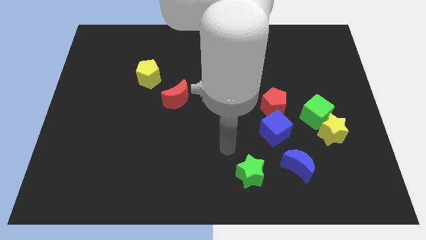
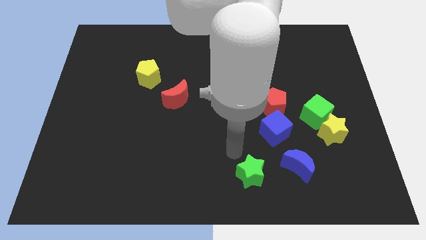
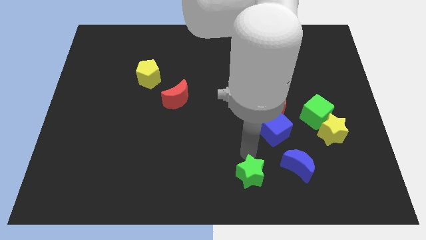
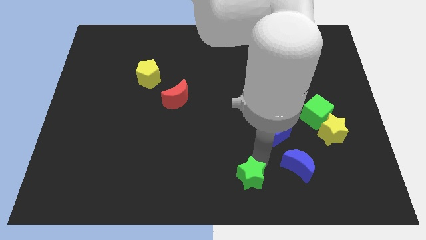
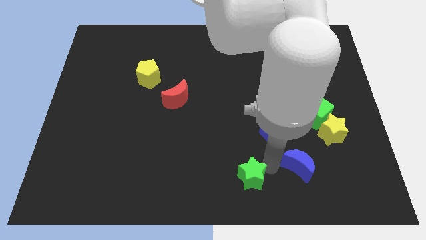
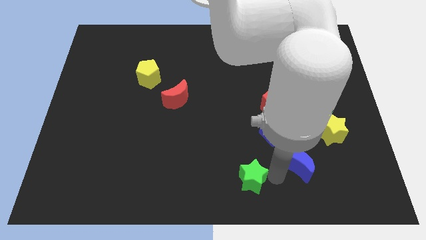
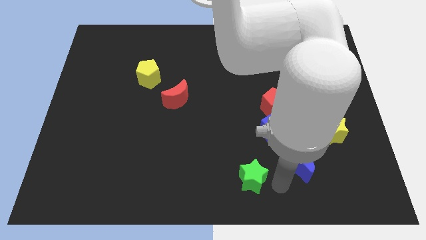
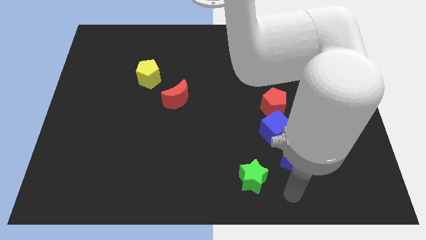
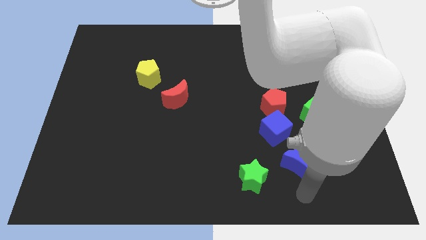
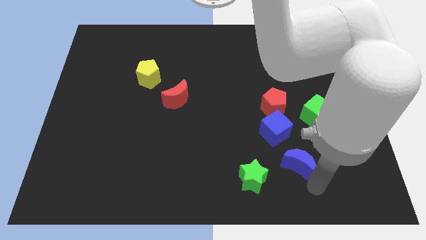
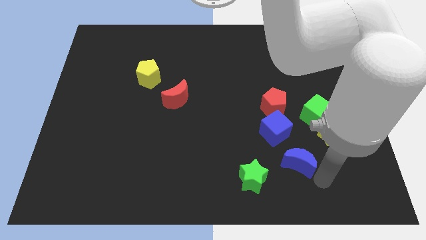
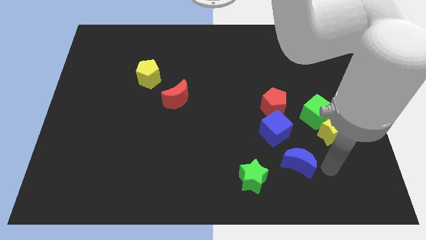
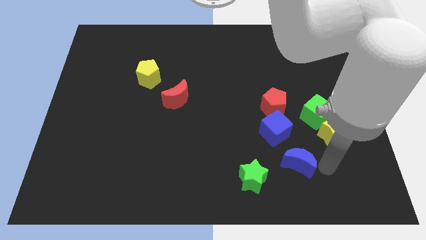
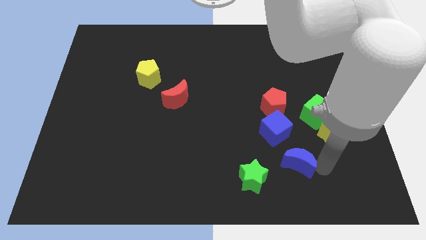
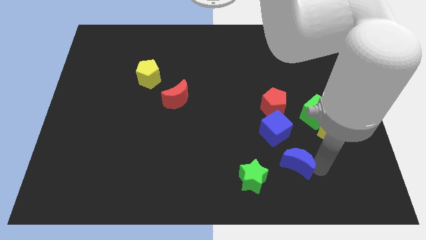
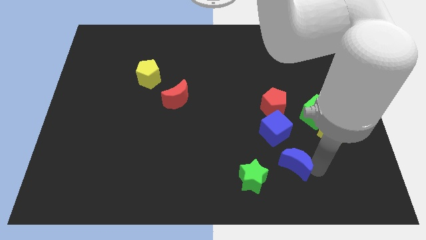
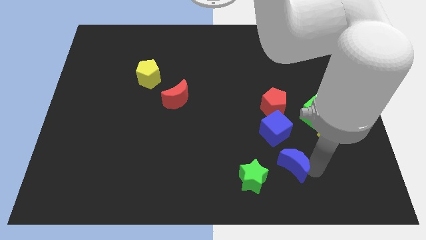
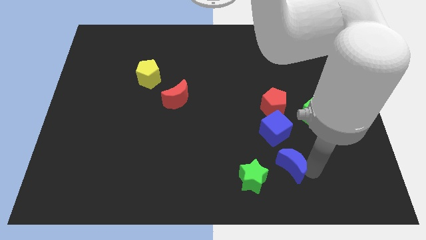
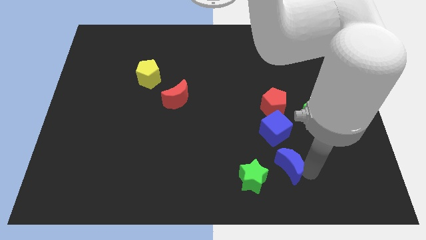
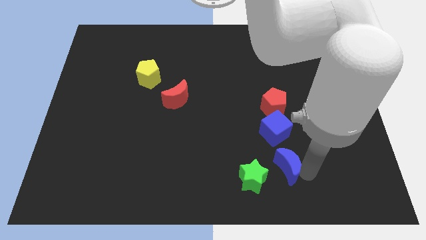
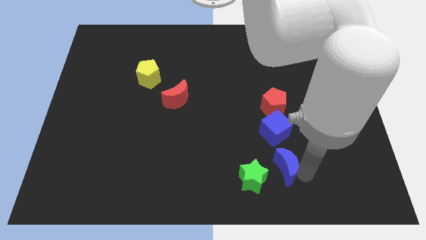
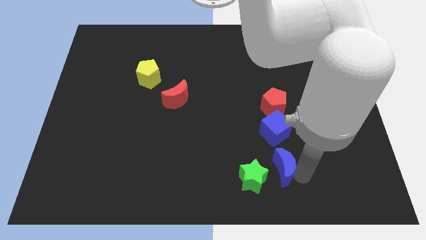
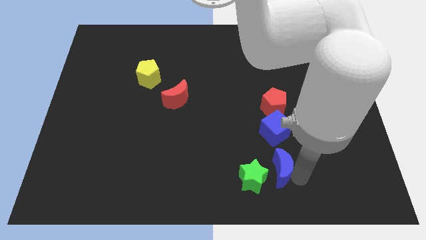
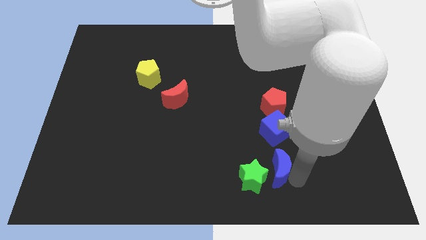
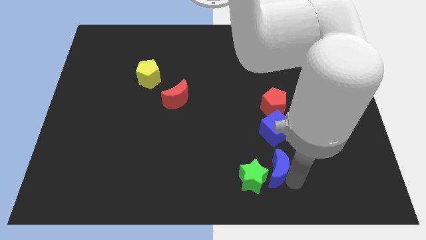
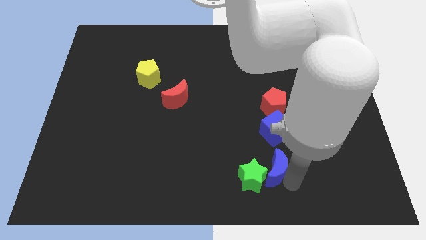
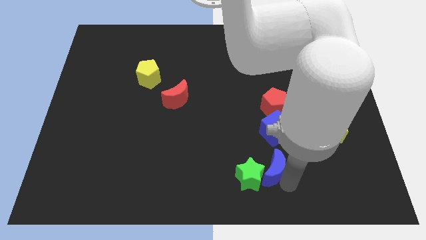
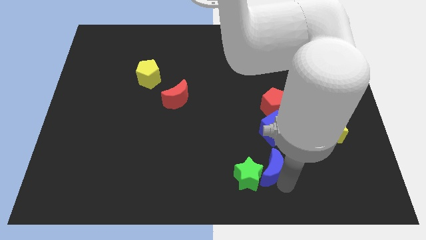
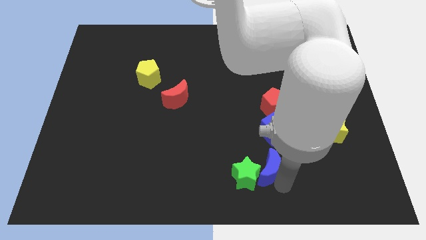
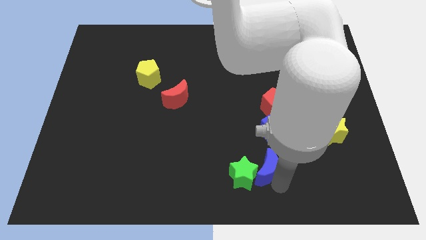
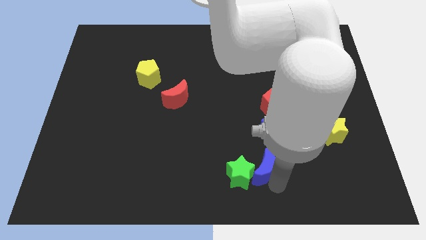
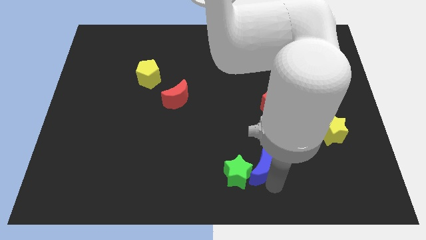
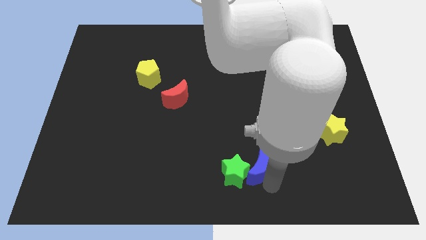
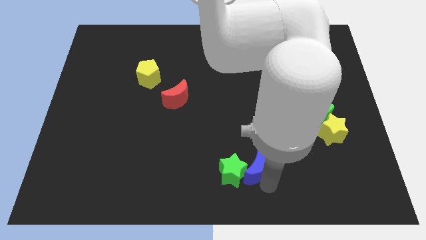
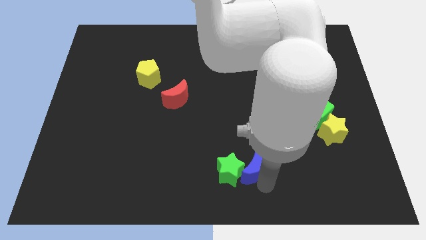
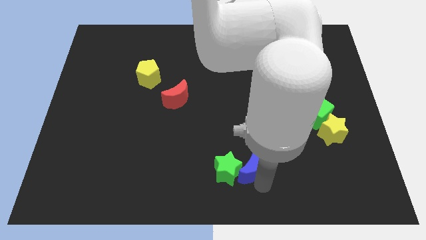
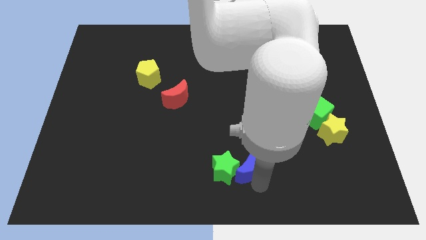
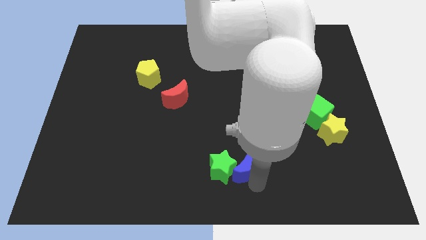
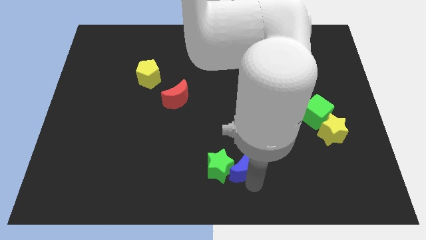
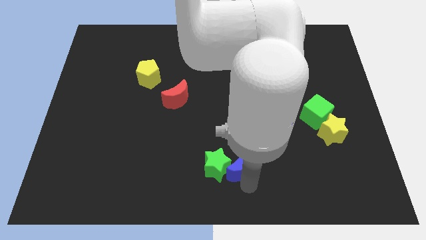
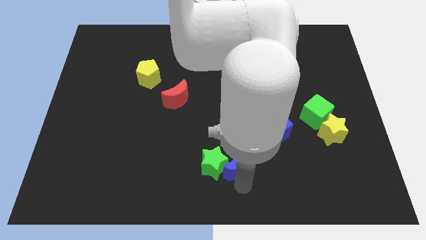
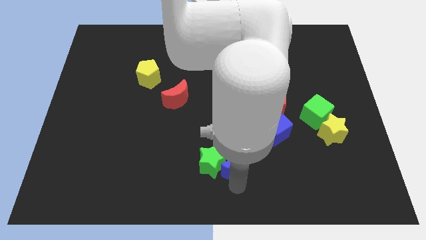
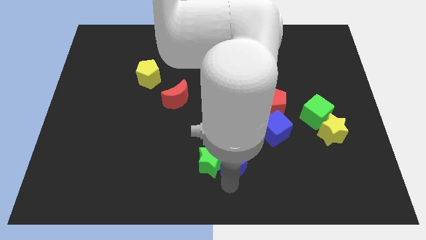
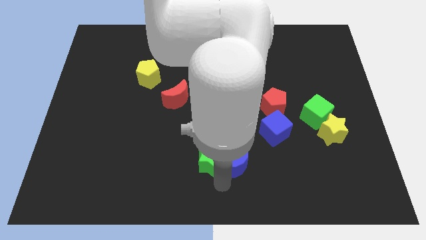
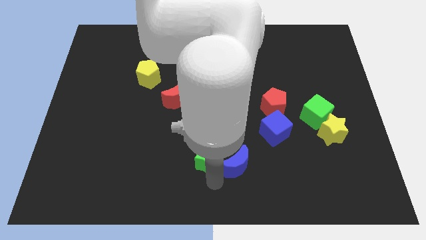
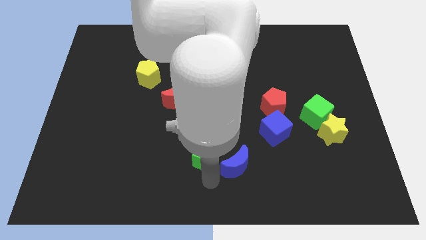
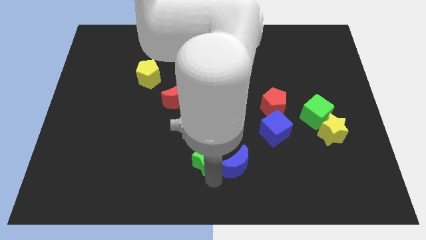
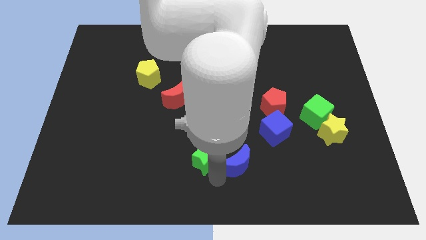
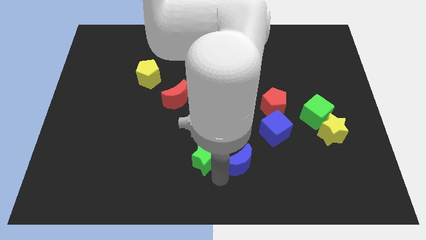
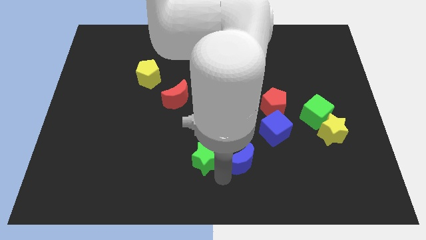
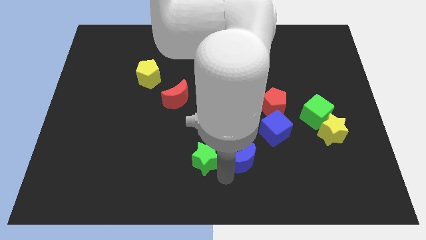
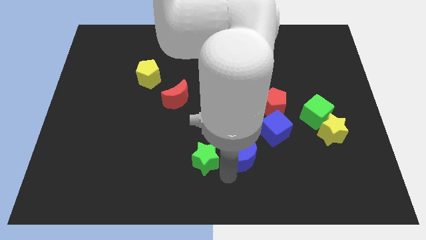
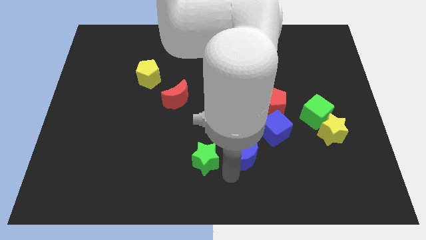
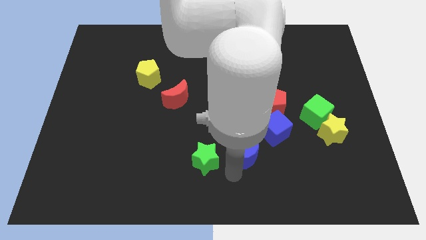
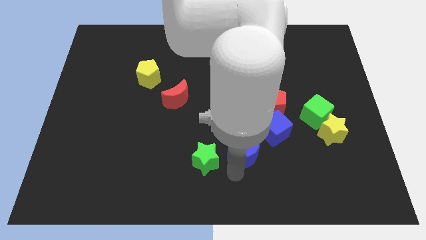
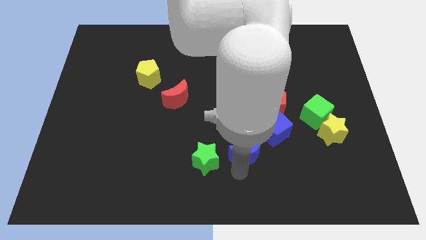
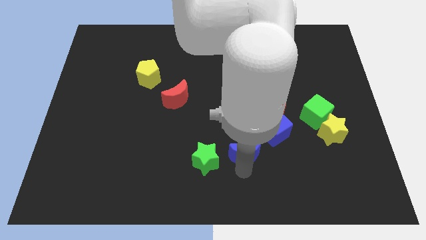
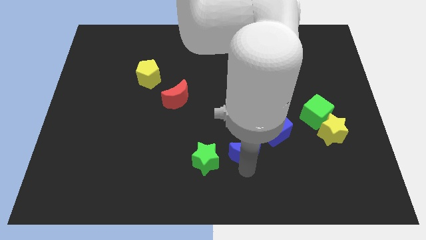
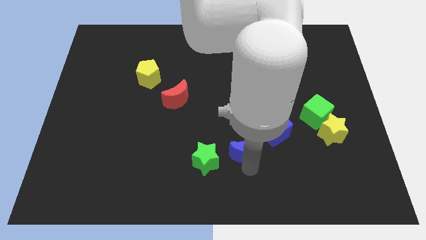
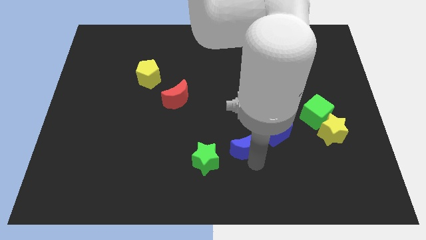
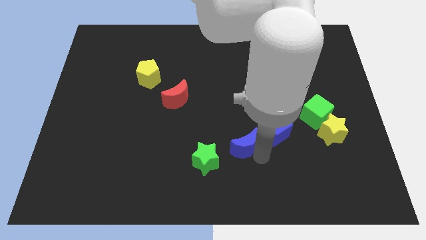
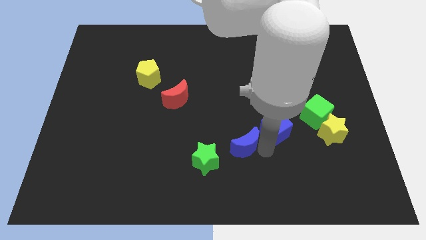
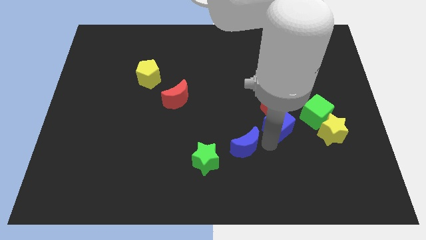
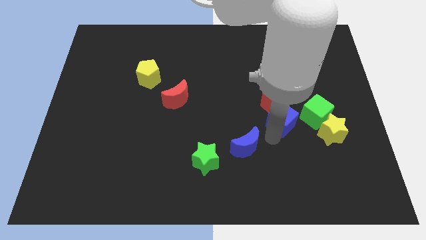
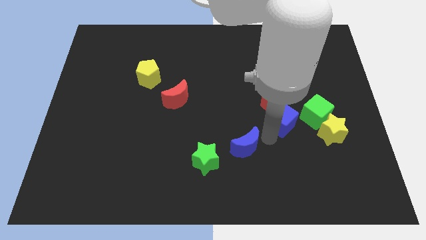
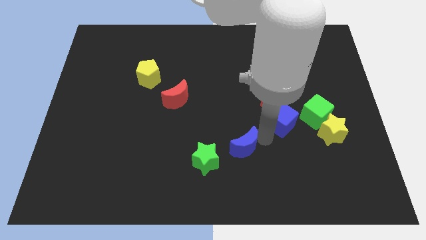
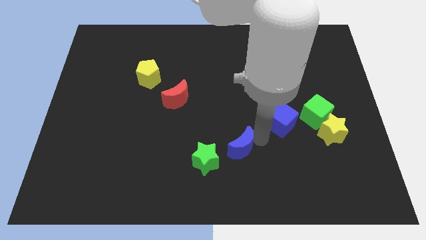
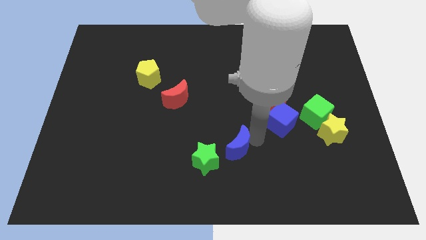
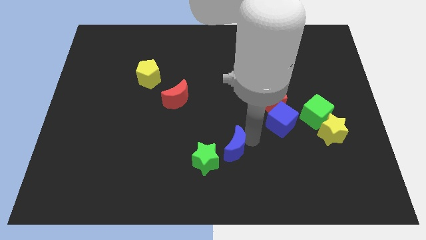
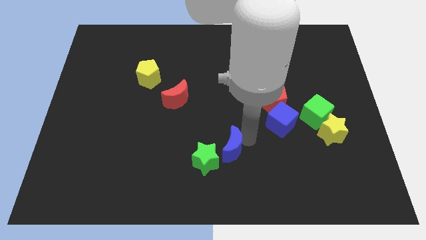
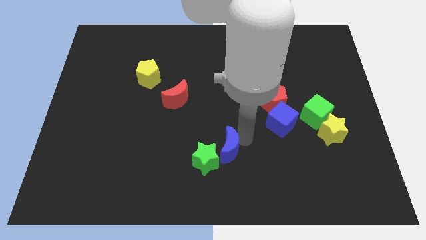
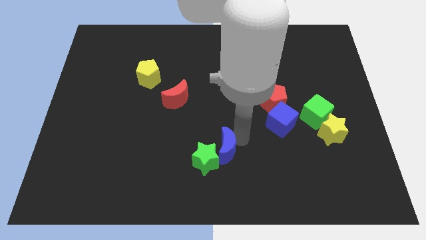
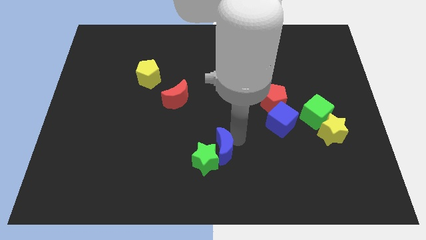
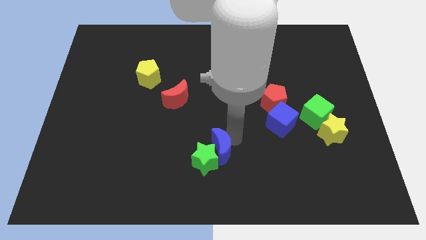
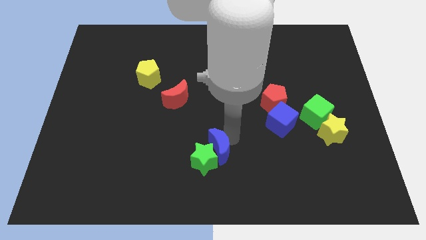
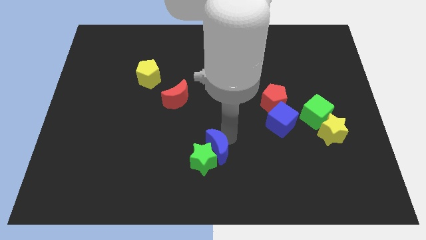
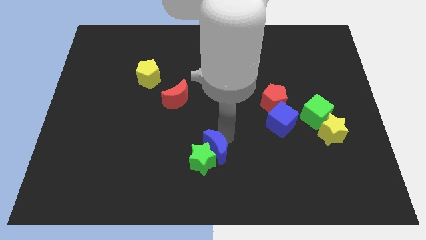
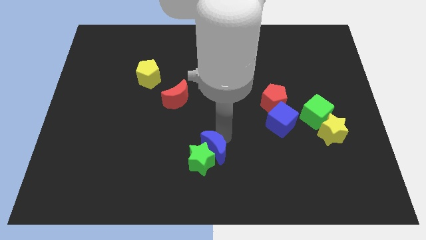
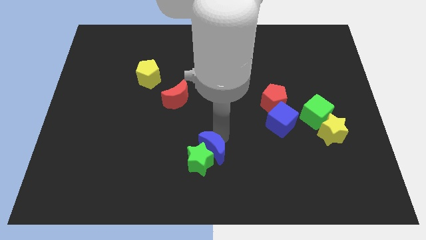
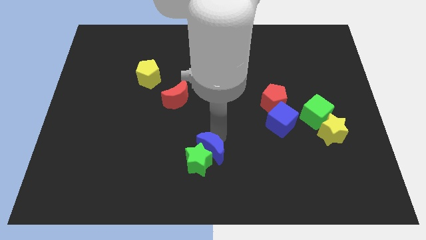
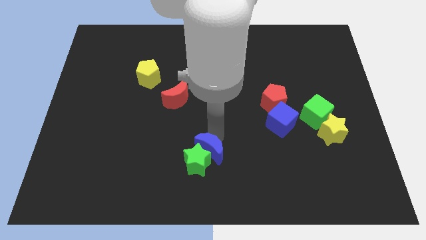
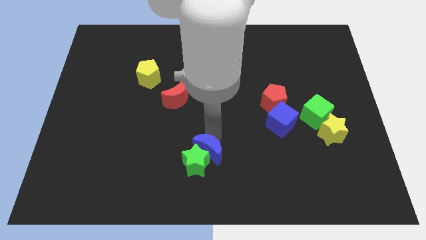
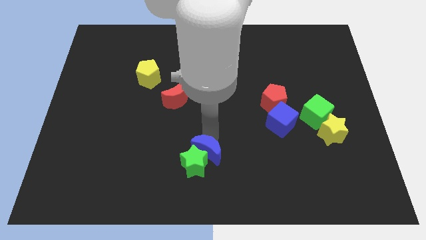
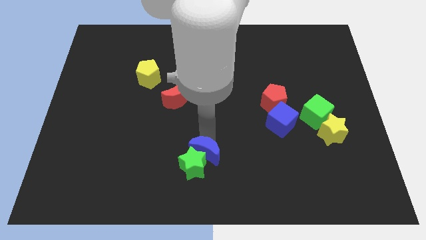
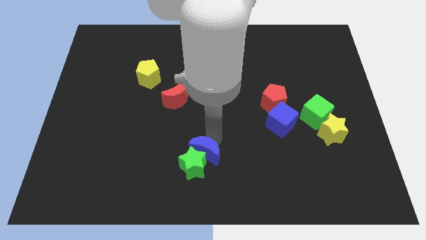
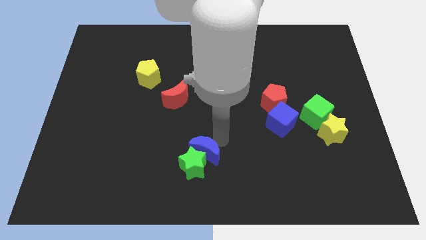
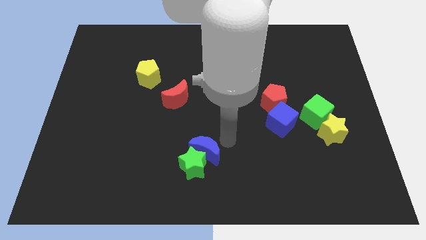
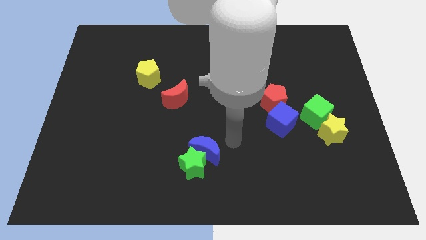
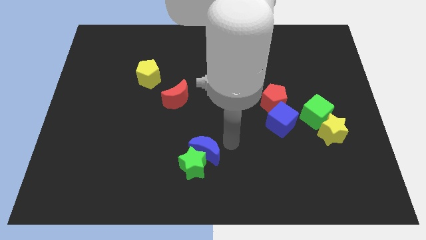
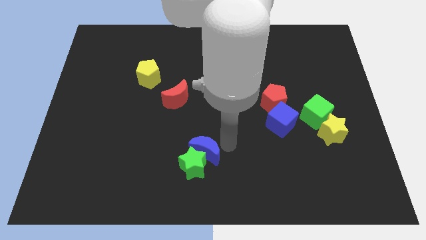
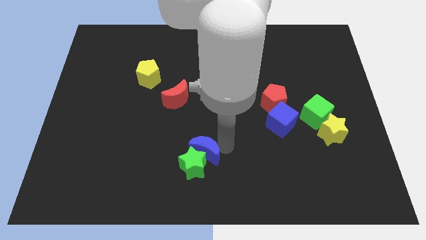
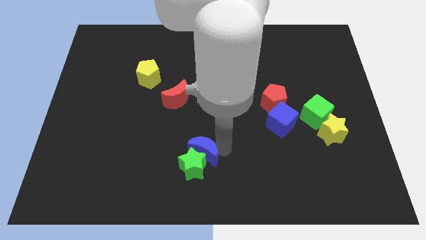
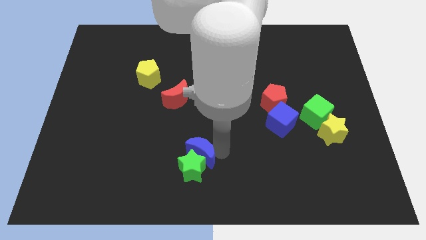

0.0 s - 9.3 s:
move the blue moon left
